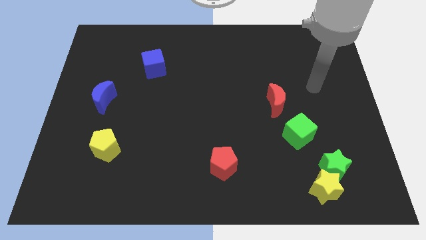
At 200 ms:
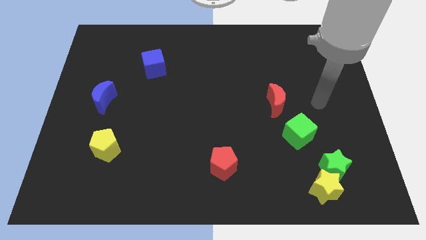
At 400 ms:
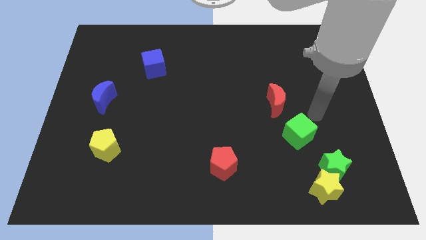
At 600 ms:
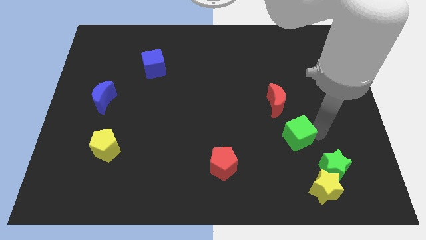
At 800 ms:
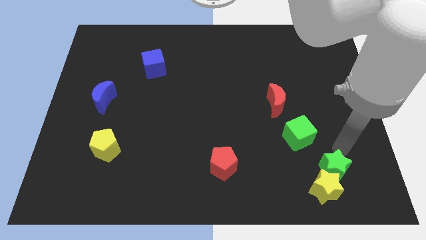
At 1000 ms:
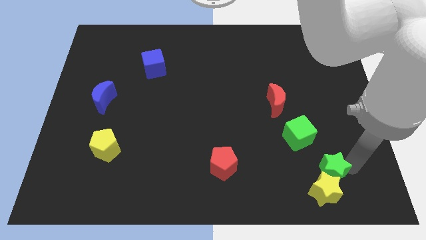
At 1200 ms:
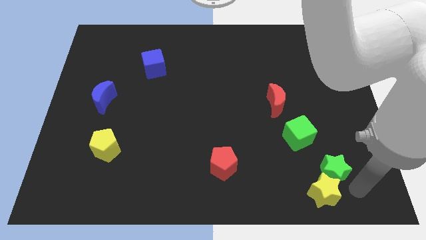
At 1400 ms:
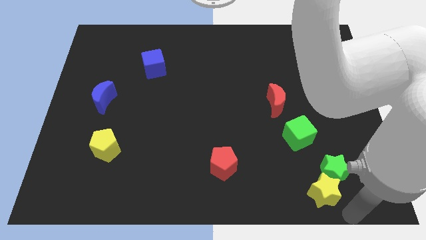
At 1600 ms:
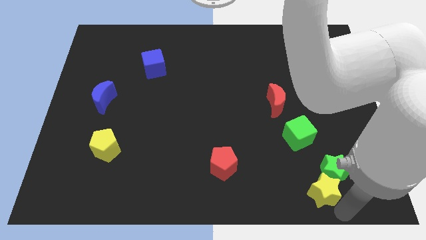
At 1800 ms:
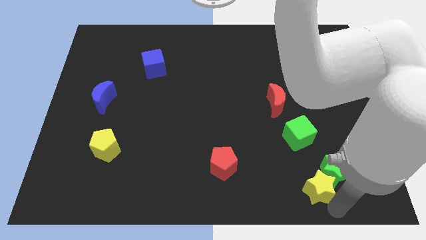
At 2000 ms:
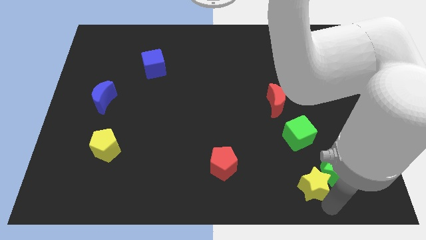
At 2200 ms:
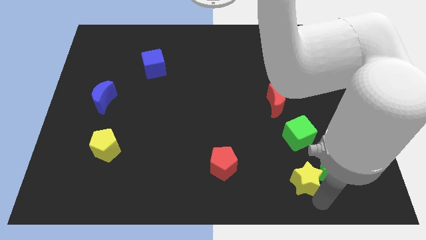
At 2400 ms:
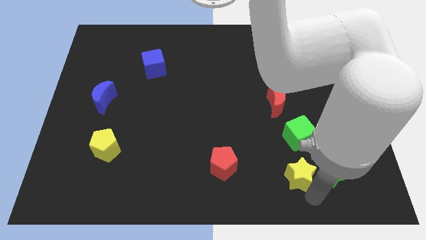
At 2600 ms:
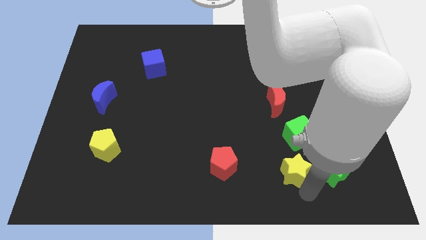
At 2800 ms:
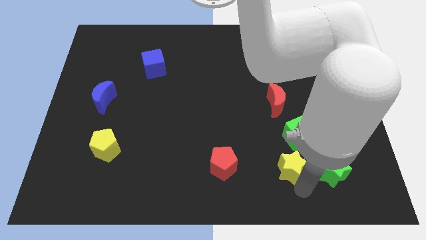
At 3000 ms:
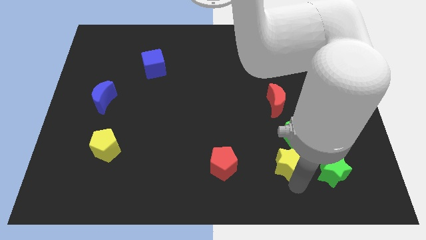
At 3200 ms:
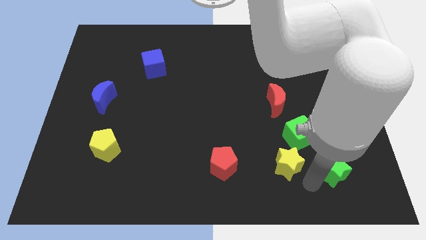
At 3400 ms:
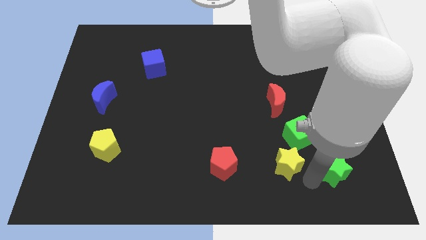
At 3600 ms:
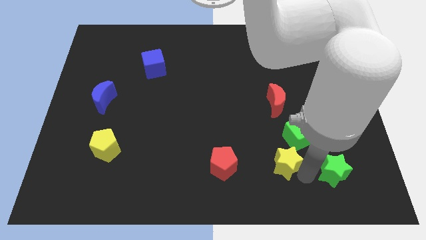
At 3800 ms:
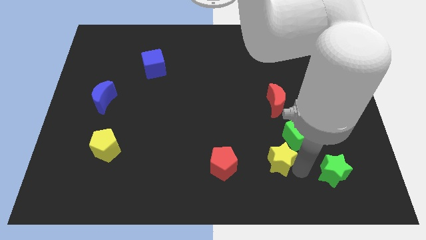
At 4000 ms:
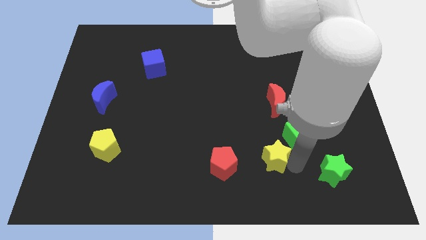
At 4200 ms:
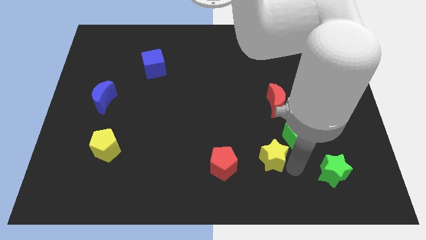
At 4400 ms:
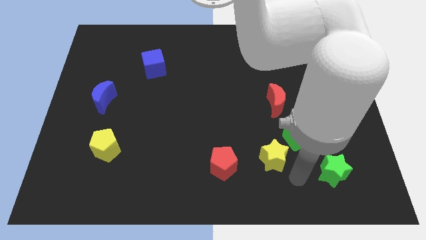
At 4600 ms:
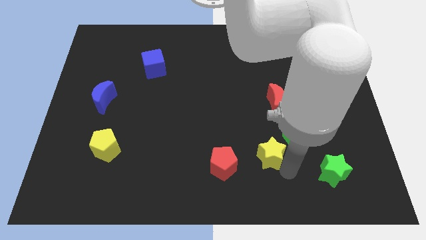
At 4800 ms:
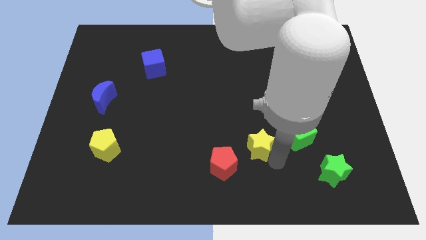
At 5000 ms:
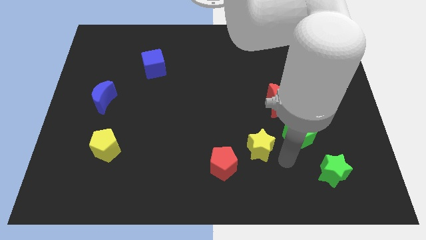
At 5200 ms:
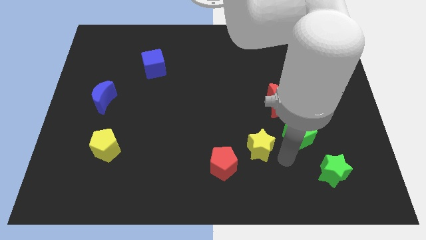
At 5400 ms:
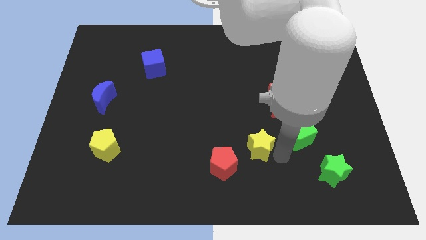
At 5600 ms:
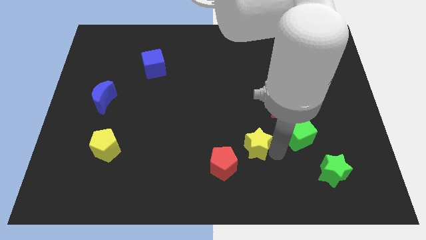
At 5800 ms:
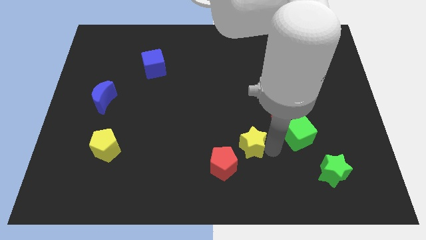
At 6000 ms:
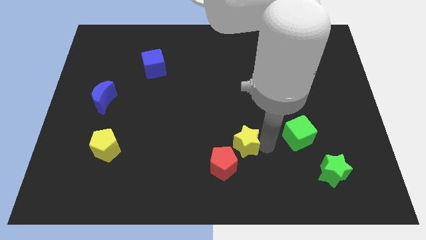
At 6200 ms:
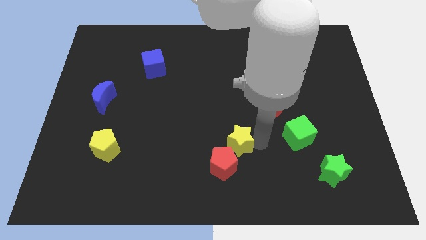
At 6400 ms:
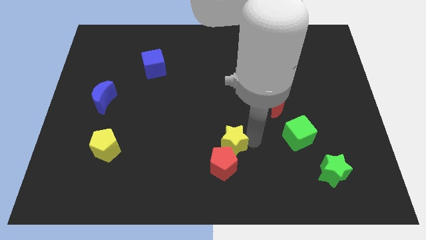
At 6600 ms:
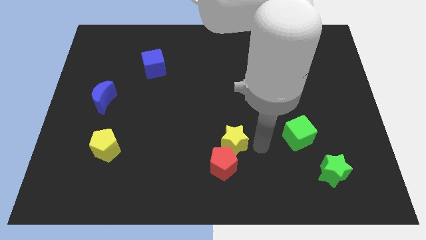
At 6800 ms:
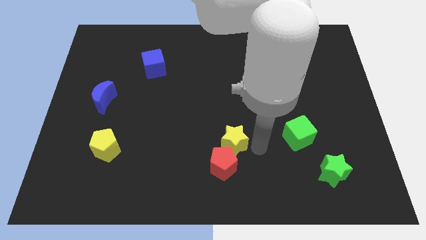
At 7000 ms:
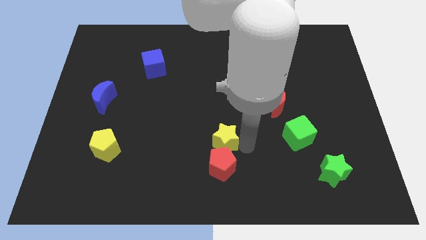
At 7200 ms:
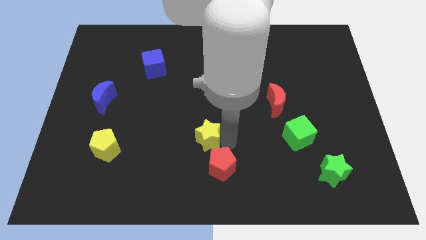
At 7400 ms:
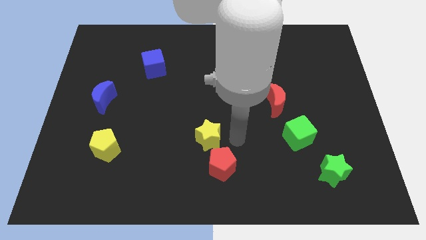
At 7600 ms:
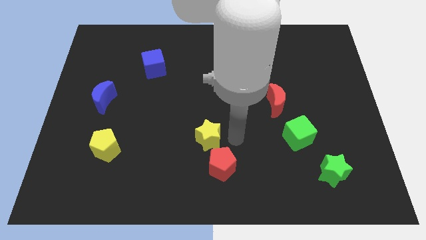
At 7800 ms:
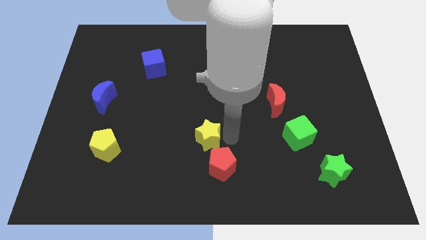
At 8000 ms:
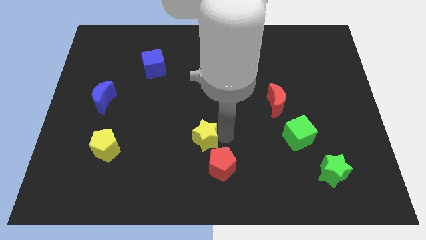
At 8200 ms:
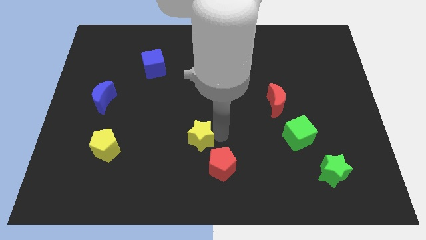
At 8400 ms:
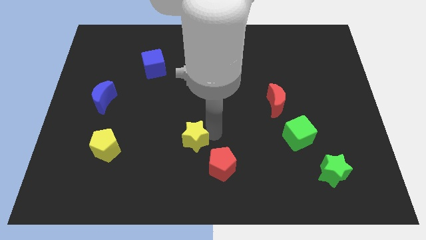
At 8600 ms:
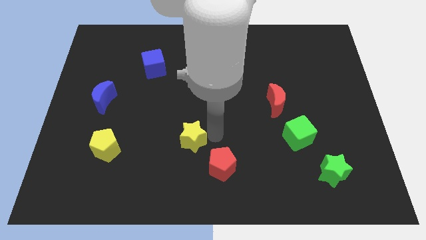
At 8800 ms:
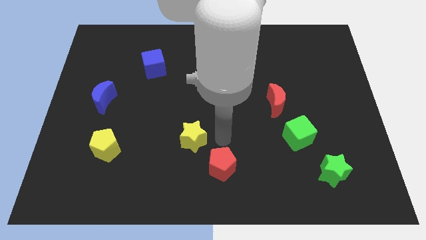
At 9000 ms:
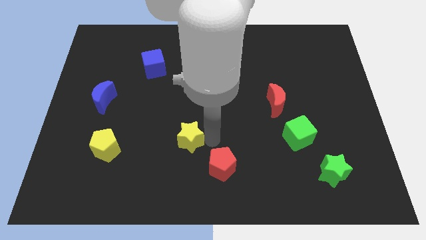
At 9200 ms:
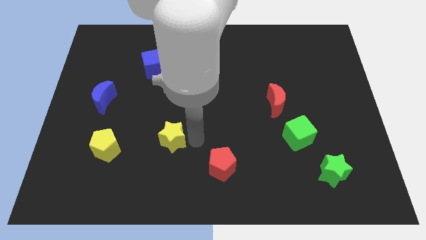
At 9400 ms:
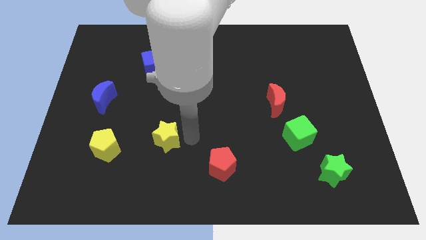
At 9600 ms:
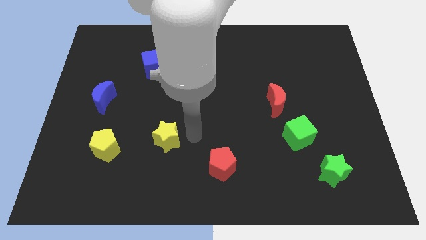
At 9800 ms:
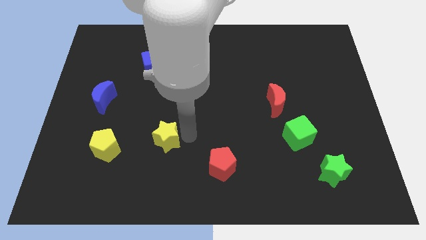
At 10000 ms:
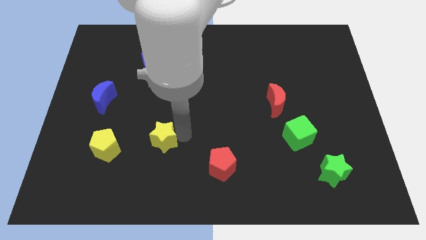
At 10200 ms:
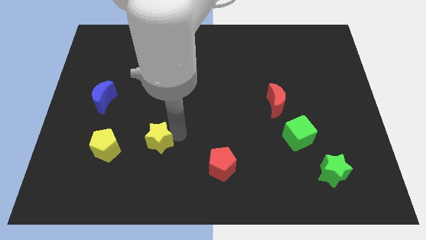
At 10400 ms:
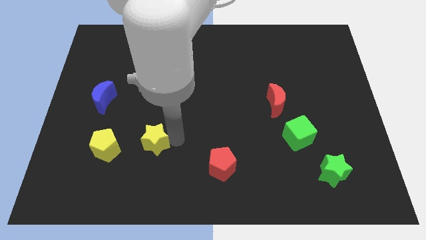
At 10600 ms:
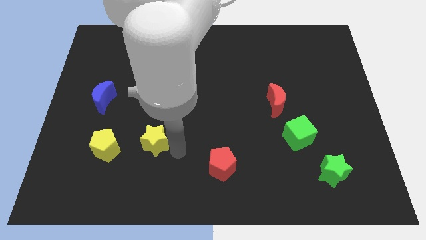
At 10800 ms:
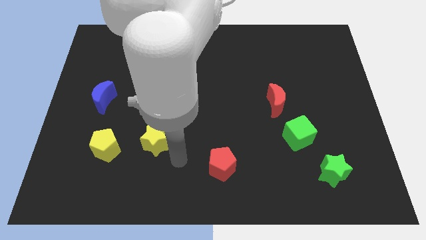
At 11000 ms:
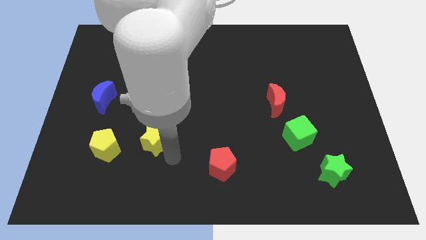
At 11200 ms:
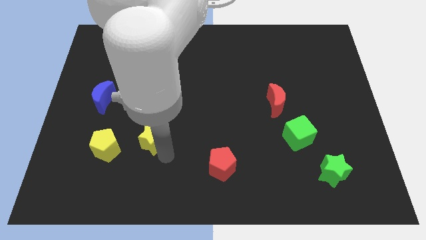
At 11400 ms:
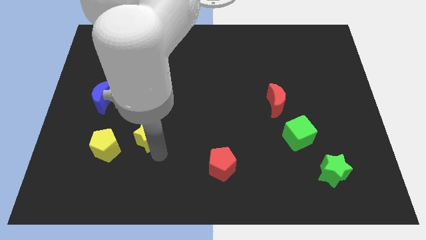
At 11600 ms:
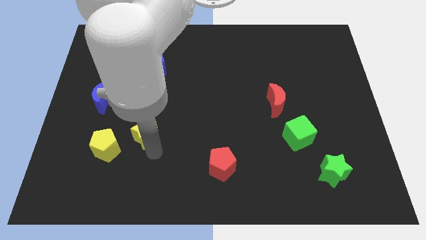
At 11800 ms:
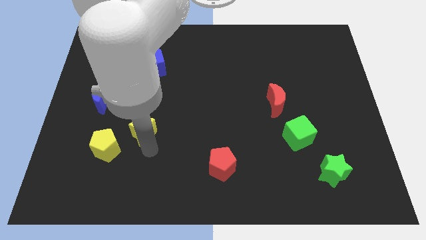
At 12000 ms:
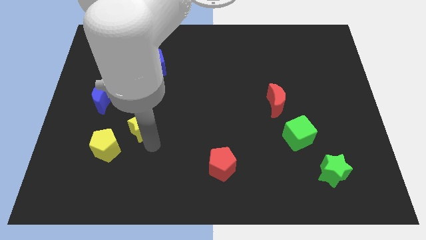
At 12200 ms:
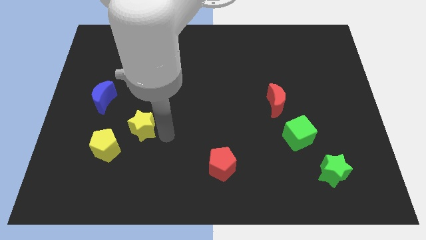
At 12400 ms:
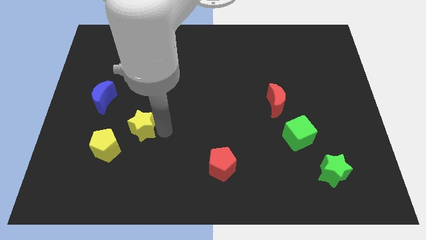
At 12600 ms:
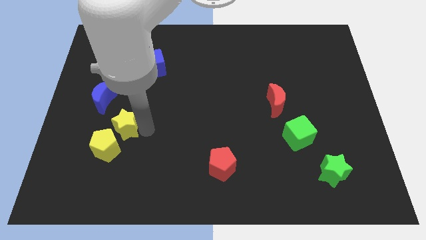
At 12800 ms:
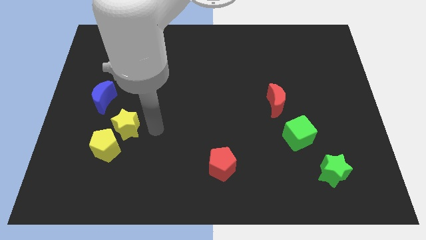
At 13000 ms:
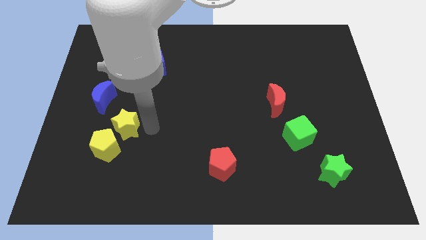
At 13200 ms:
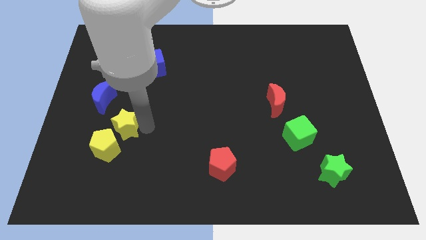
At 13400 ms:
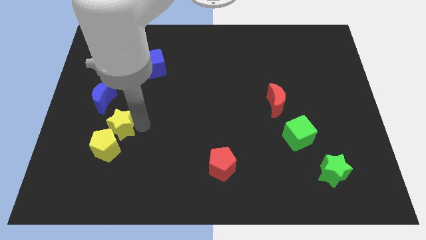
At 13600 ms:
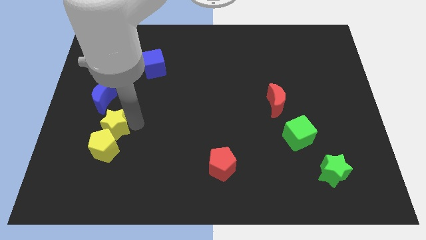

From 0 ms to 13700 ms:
put the yellow star below the blue moon

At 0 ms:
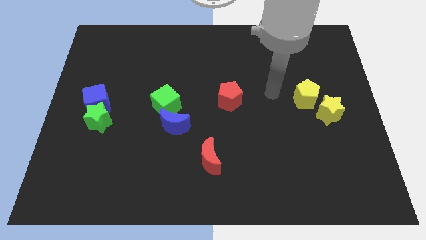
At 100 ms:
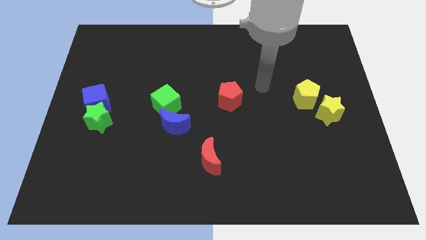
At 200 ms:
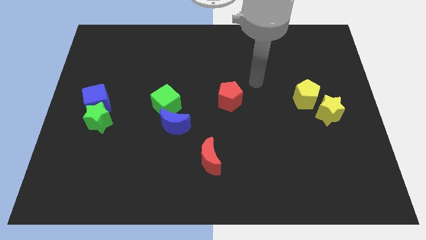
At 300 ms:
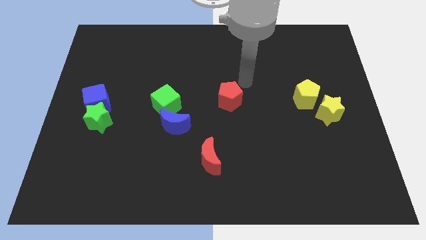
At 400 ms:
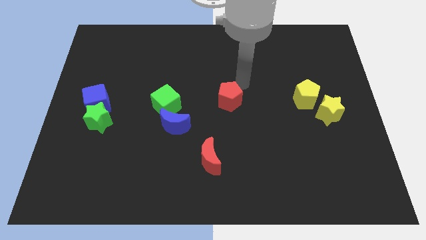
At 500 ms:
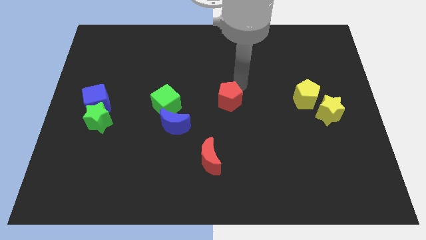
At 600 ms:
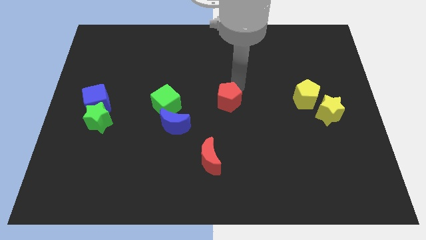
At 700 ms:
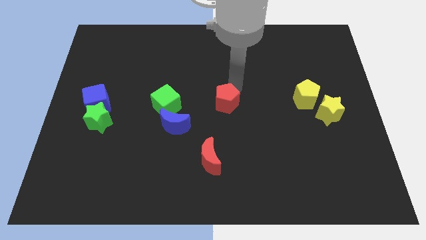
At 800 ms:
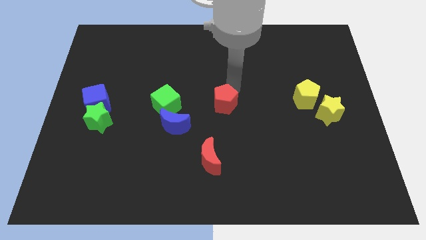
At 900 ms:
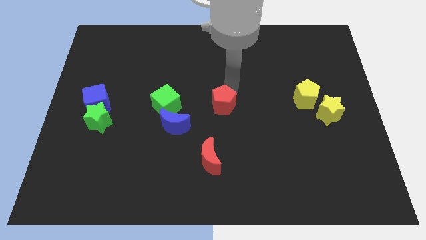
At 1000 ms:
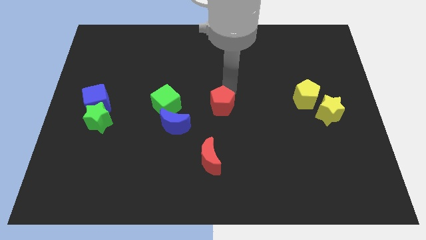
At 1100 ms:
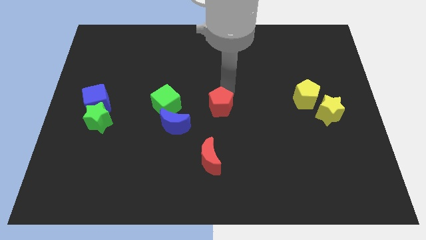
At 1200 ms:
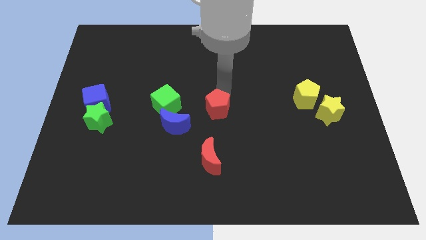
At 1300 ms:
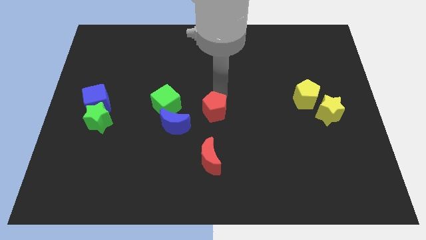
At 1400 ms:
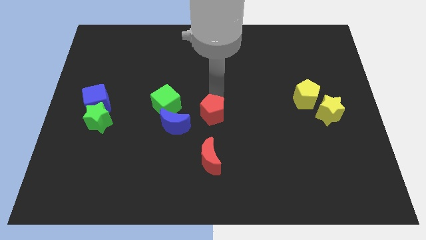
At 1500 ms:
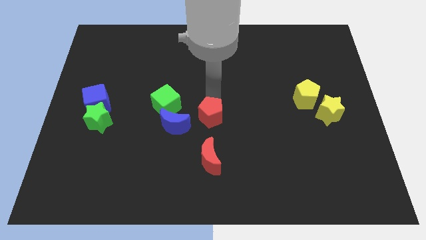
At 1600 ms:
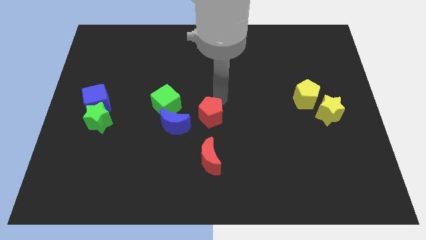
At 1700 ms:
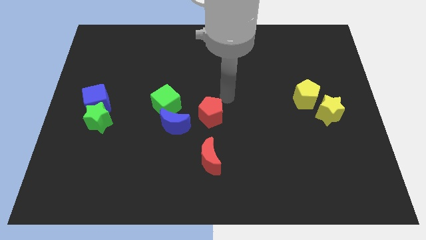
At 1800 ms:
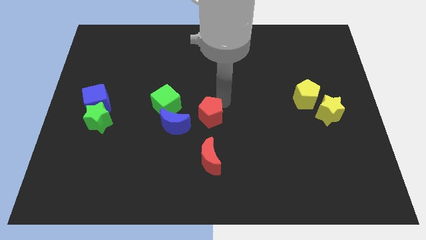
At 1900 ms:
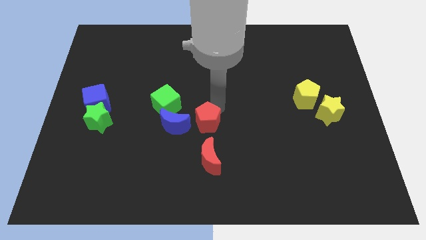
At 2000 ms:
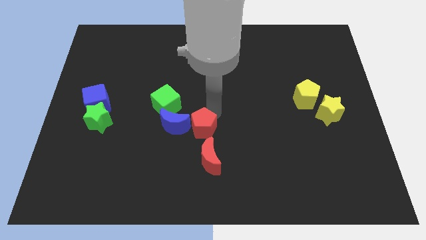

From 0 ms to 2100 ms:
push the red pentagon to the top left side of the red moon
